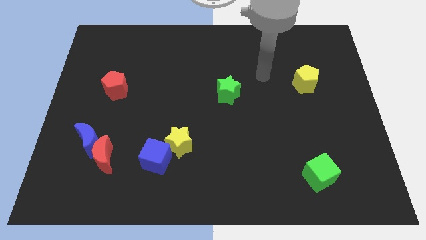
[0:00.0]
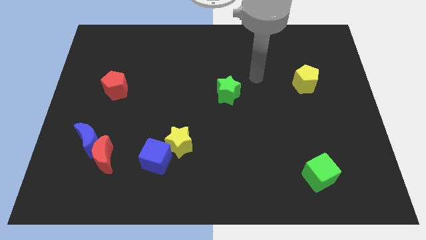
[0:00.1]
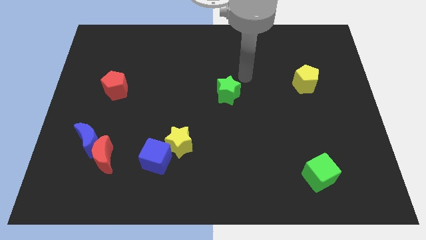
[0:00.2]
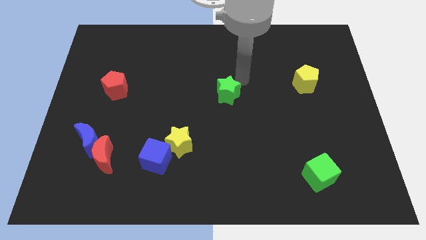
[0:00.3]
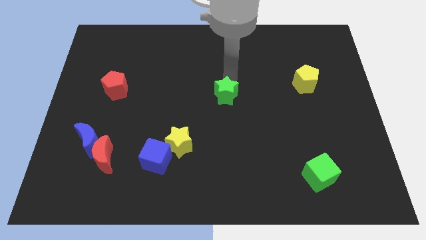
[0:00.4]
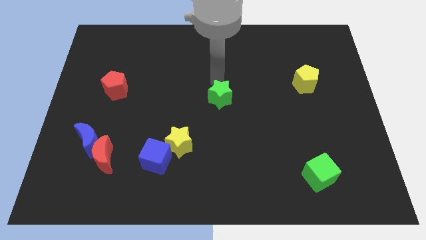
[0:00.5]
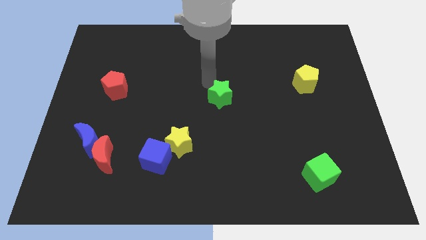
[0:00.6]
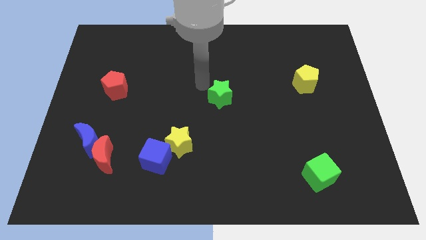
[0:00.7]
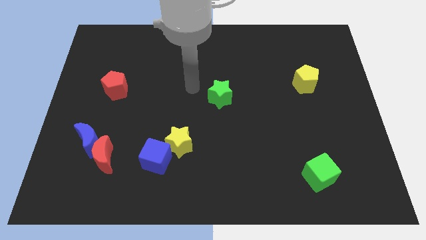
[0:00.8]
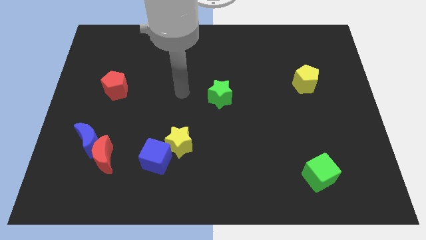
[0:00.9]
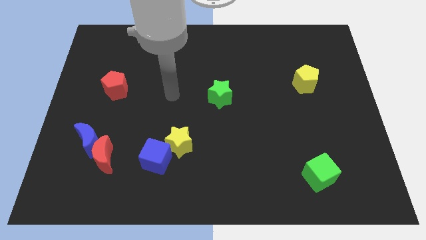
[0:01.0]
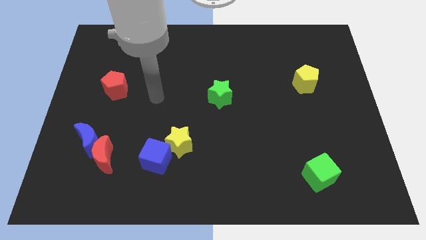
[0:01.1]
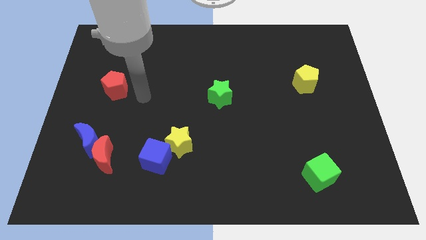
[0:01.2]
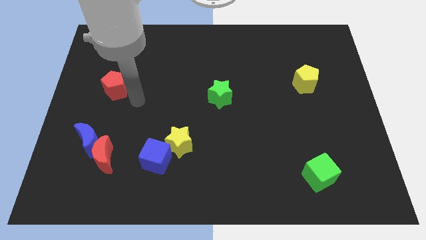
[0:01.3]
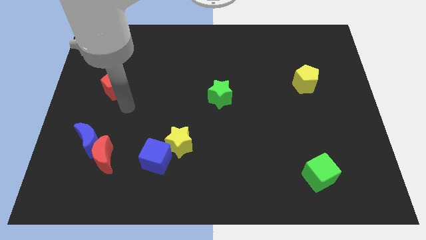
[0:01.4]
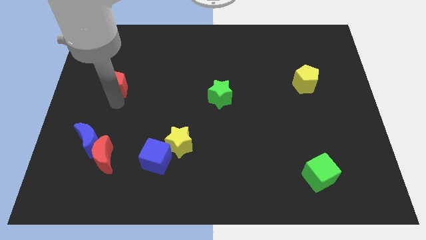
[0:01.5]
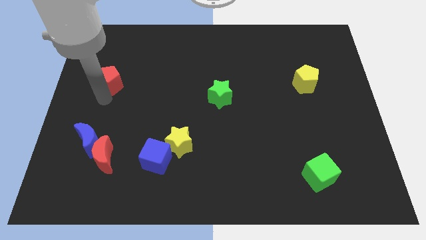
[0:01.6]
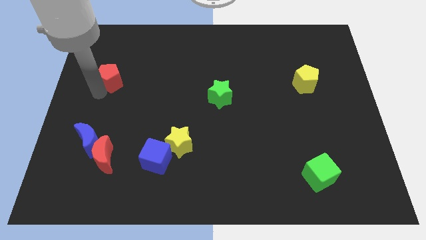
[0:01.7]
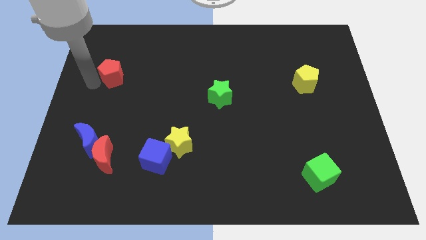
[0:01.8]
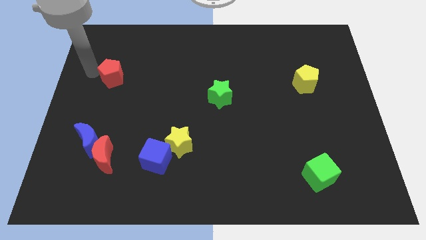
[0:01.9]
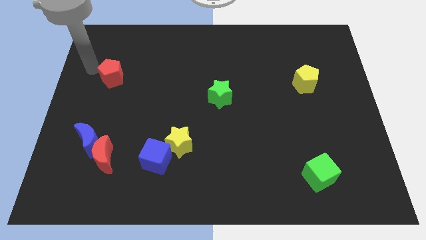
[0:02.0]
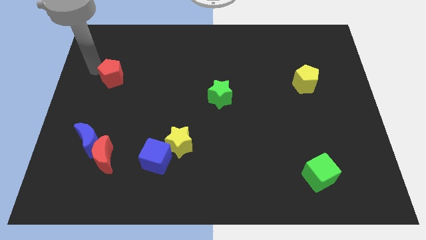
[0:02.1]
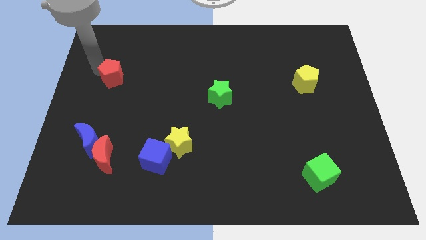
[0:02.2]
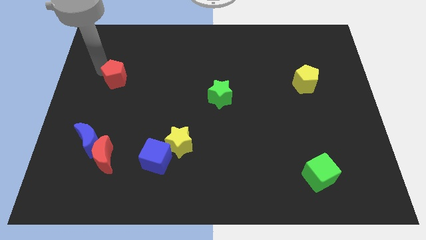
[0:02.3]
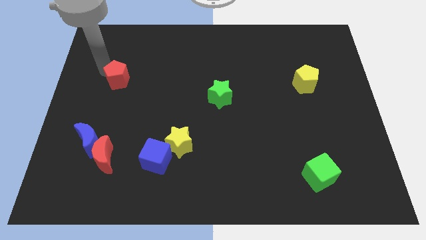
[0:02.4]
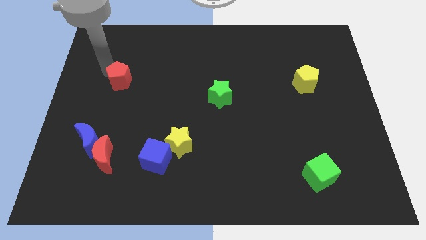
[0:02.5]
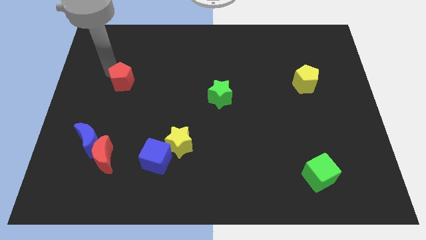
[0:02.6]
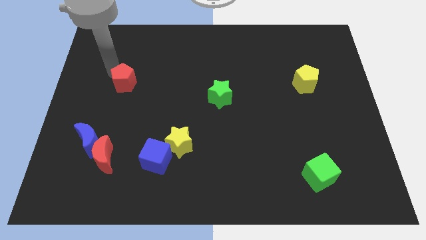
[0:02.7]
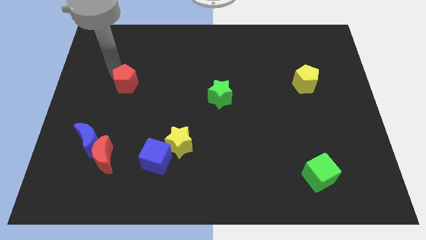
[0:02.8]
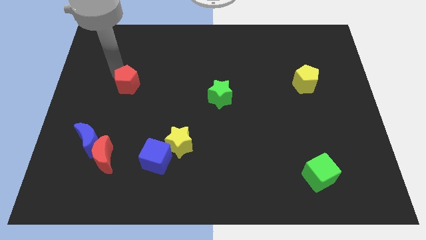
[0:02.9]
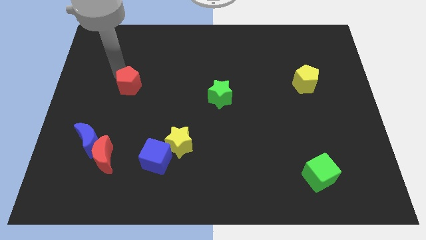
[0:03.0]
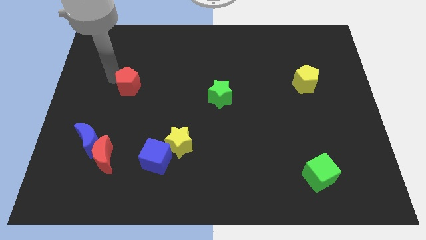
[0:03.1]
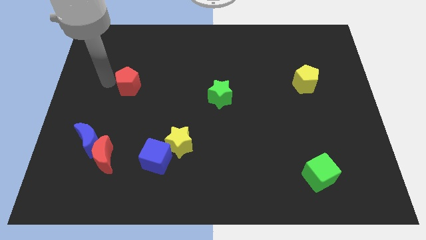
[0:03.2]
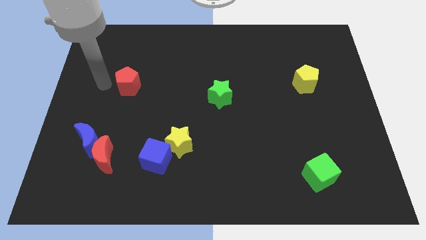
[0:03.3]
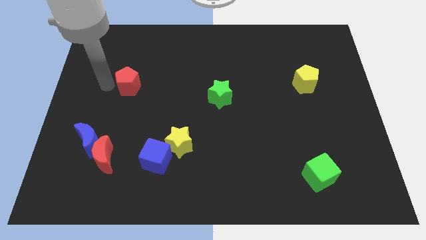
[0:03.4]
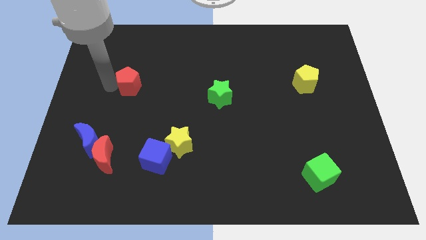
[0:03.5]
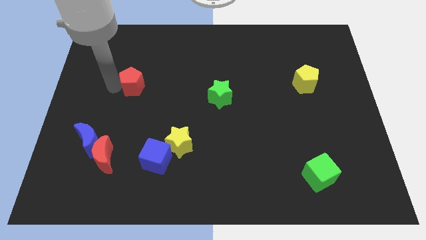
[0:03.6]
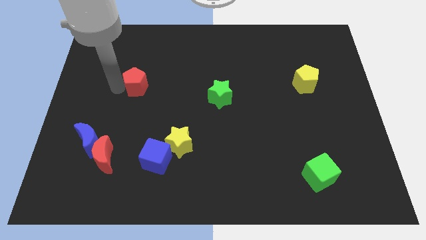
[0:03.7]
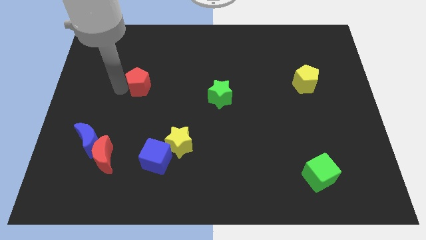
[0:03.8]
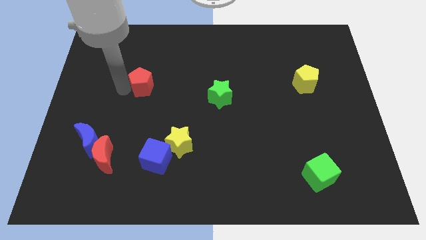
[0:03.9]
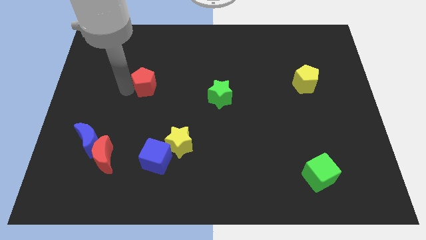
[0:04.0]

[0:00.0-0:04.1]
slightly slide the red pentagon right

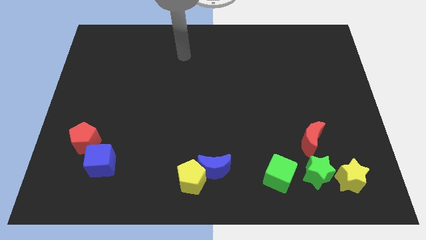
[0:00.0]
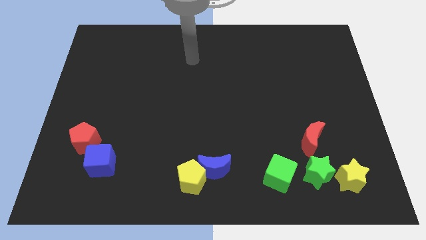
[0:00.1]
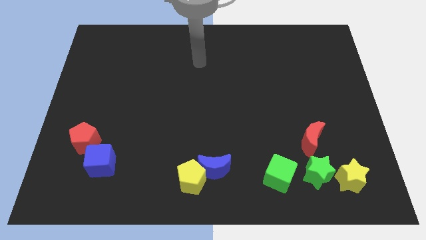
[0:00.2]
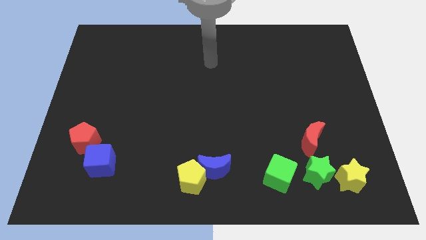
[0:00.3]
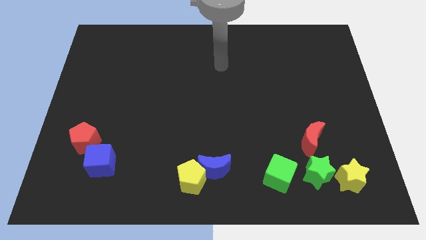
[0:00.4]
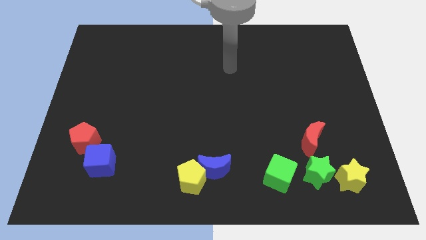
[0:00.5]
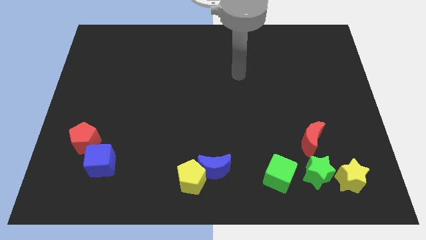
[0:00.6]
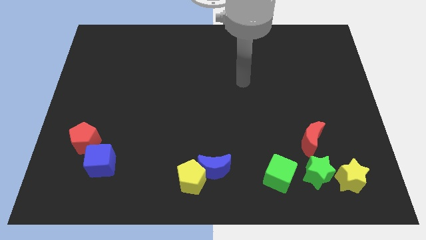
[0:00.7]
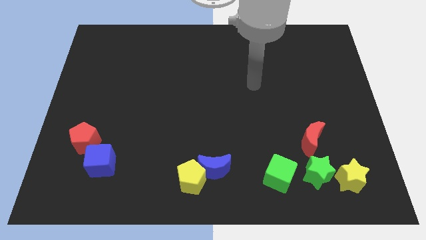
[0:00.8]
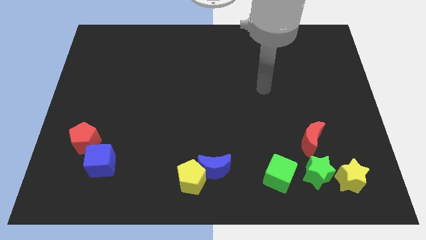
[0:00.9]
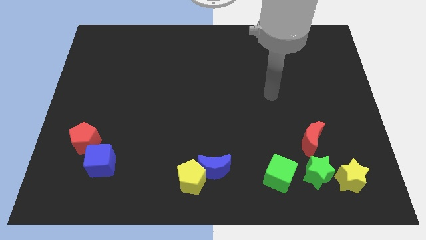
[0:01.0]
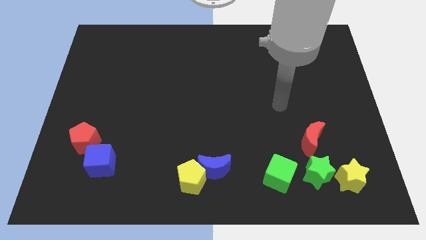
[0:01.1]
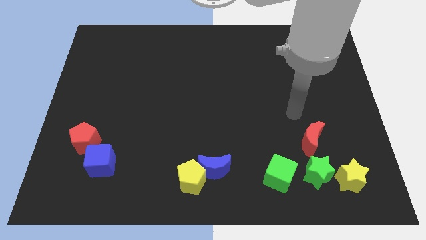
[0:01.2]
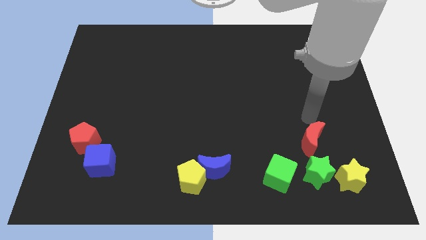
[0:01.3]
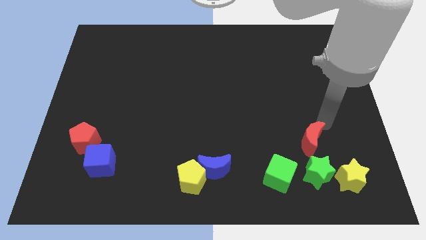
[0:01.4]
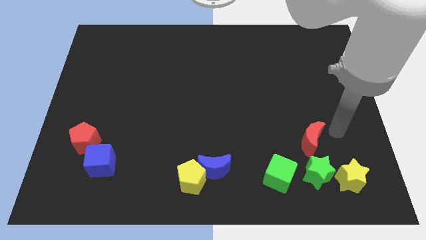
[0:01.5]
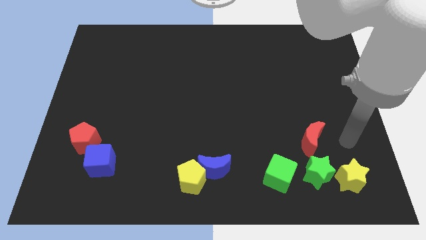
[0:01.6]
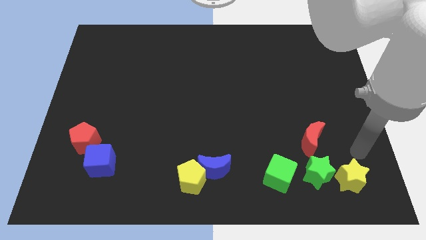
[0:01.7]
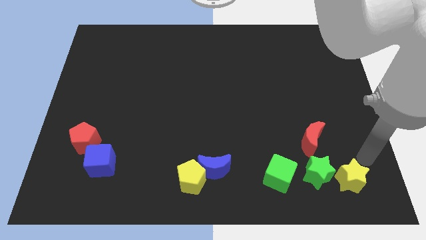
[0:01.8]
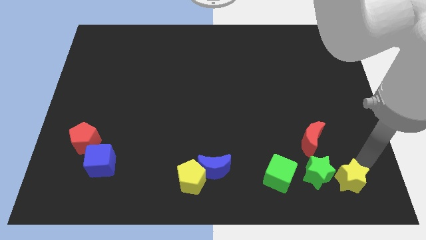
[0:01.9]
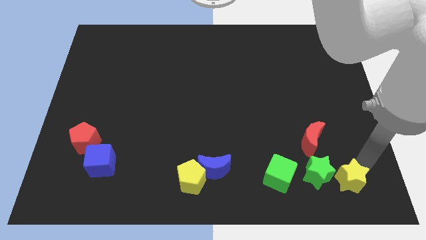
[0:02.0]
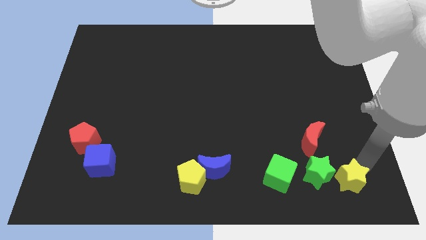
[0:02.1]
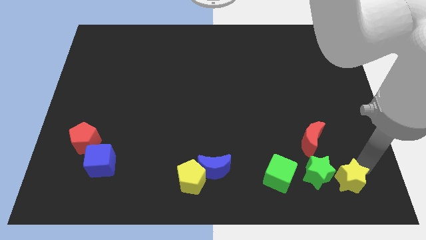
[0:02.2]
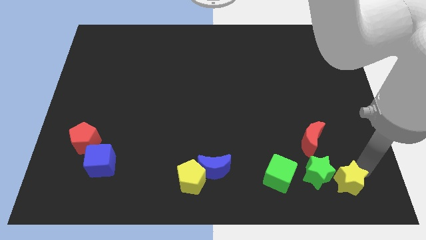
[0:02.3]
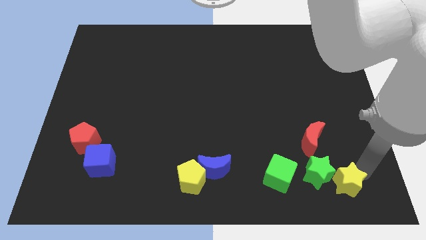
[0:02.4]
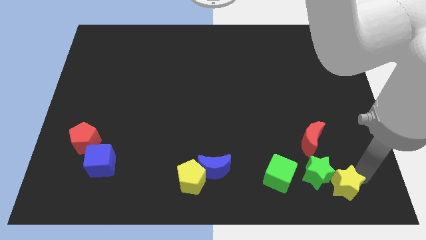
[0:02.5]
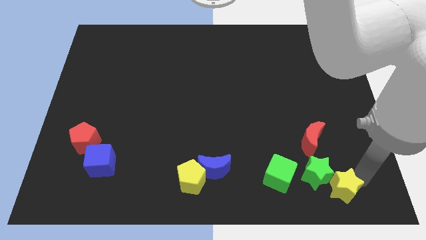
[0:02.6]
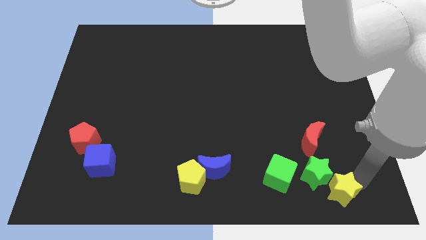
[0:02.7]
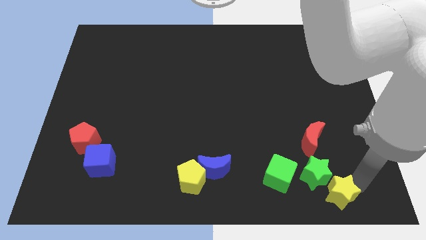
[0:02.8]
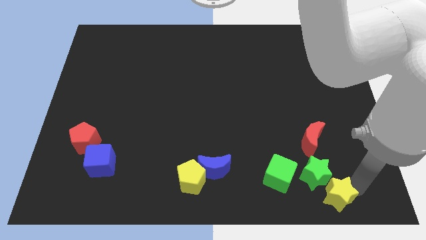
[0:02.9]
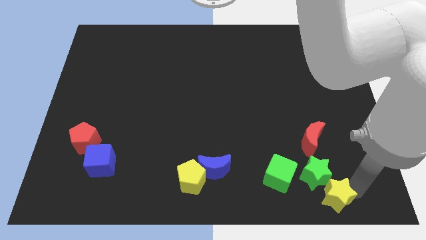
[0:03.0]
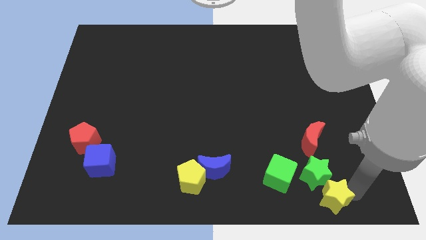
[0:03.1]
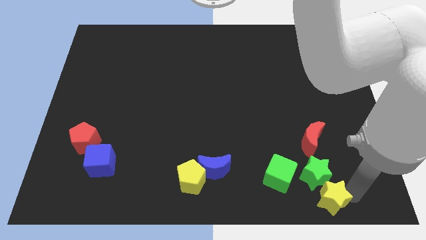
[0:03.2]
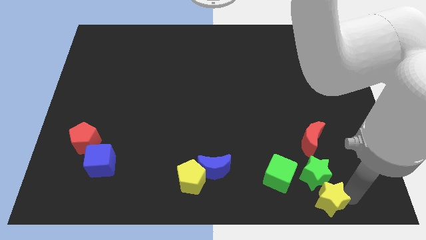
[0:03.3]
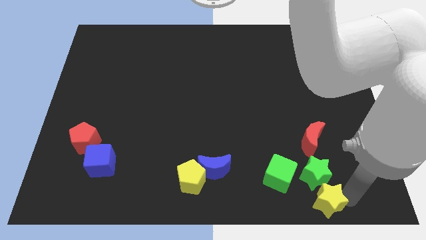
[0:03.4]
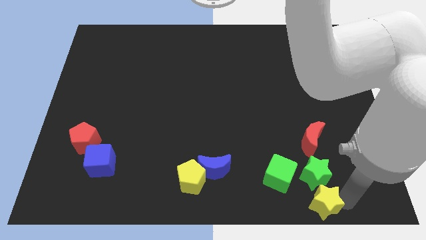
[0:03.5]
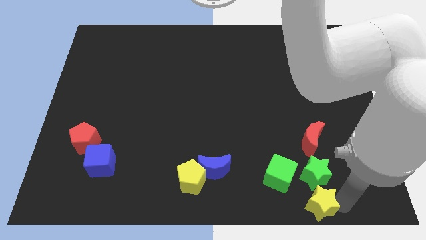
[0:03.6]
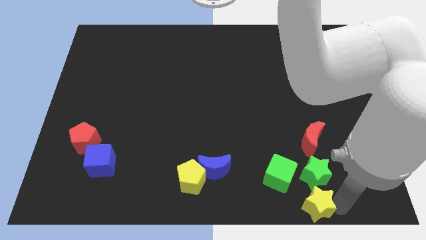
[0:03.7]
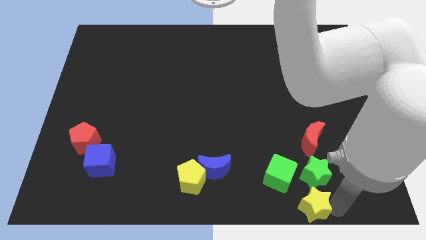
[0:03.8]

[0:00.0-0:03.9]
slightly slide the yellow star left

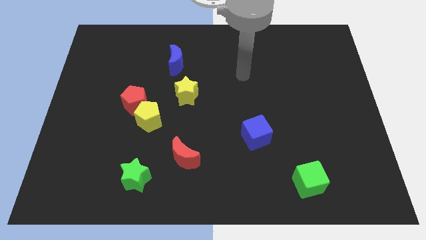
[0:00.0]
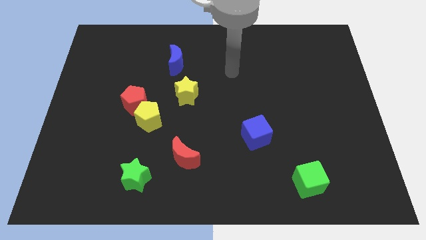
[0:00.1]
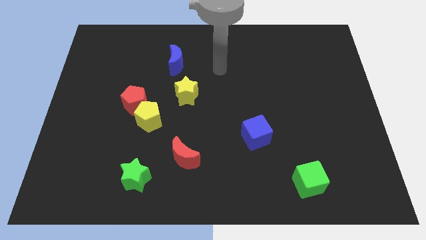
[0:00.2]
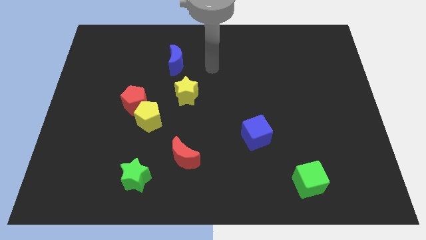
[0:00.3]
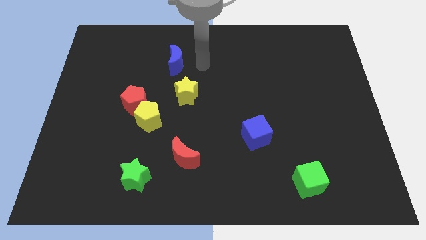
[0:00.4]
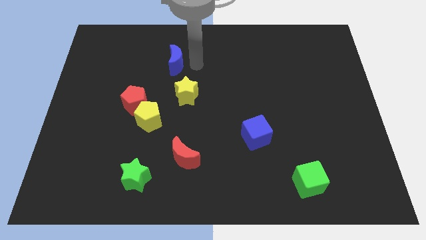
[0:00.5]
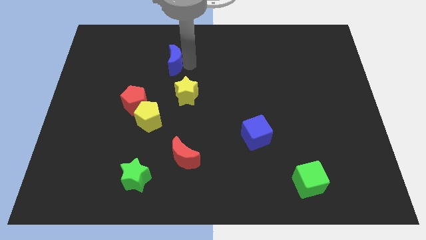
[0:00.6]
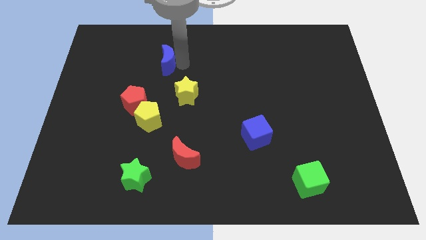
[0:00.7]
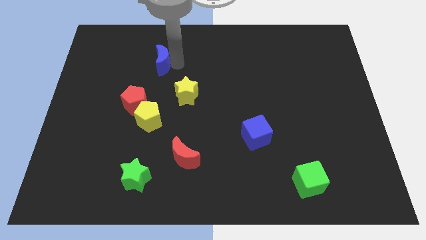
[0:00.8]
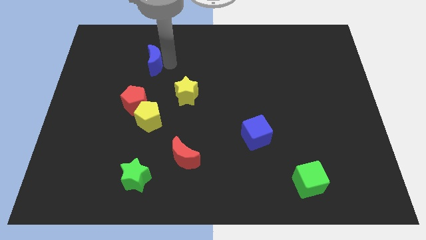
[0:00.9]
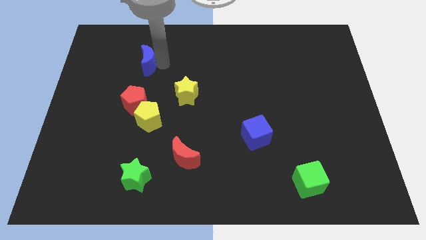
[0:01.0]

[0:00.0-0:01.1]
slightly push the blue moon to the left
